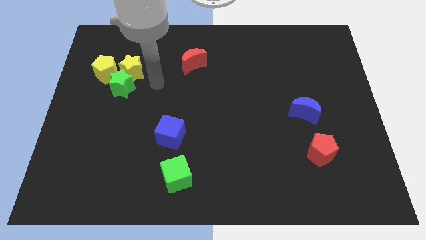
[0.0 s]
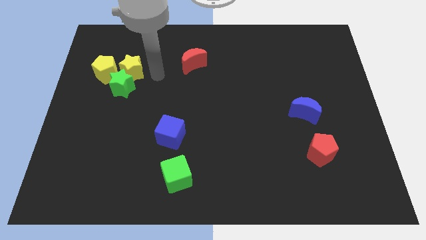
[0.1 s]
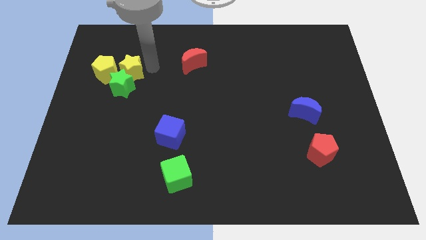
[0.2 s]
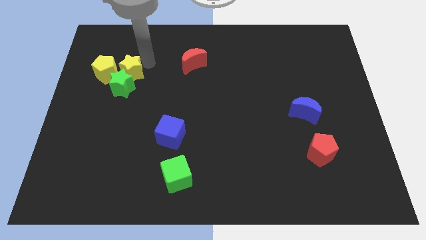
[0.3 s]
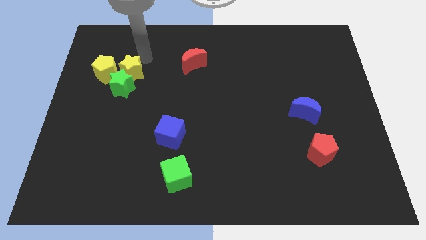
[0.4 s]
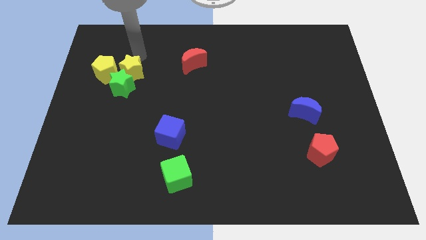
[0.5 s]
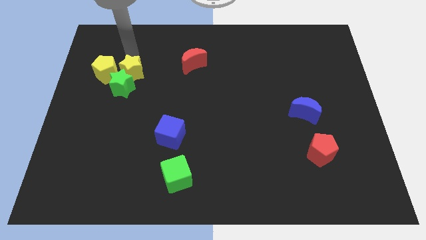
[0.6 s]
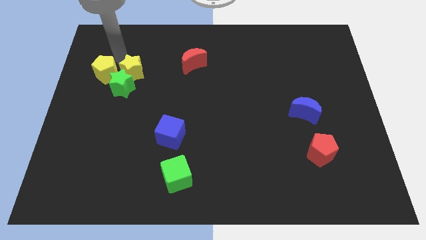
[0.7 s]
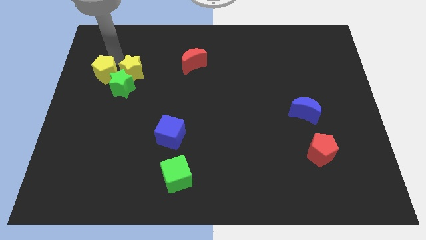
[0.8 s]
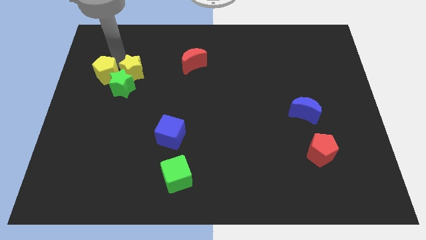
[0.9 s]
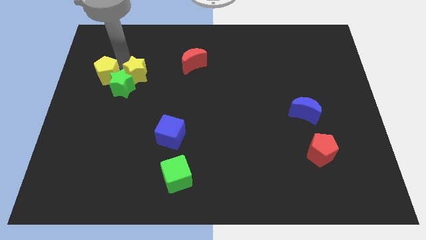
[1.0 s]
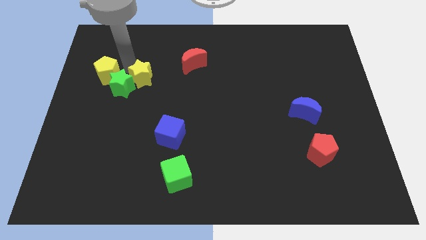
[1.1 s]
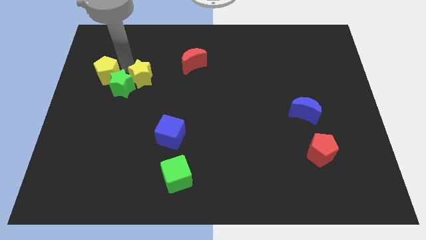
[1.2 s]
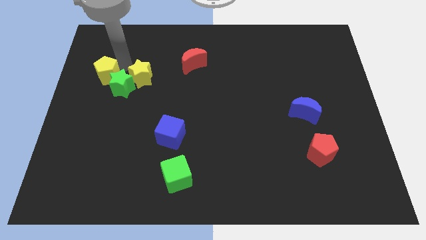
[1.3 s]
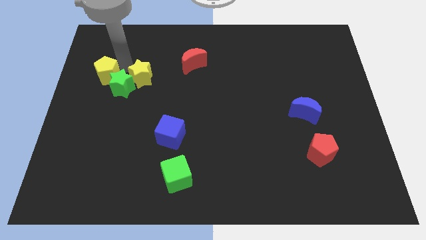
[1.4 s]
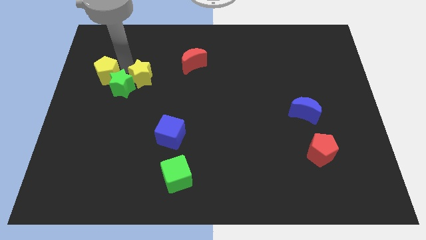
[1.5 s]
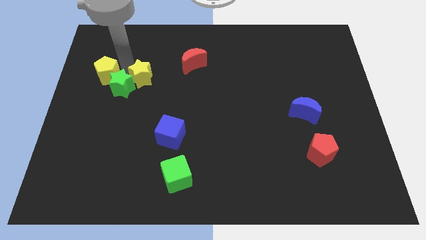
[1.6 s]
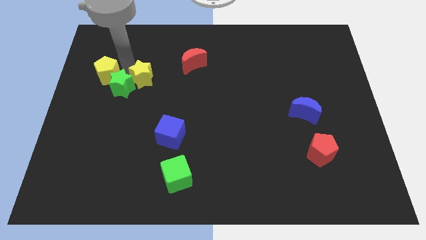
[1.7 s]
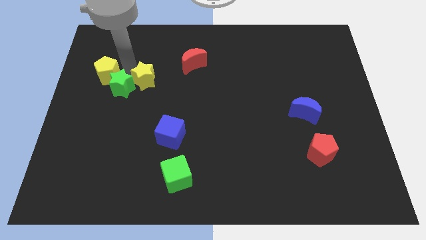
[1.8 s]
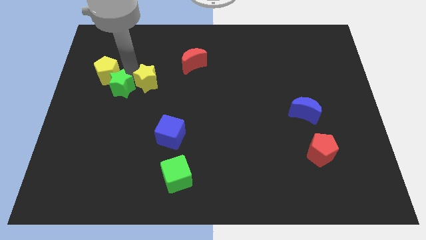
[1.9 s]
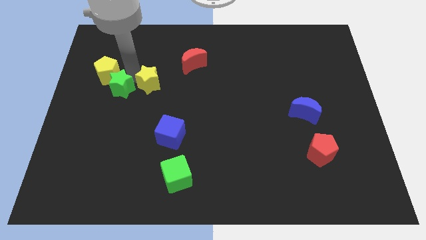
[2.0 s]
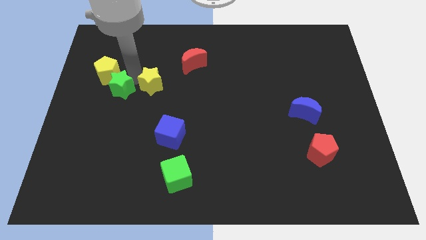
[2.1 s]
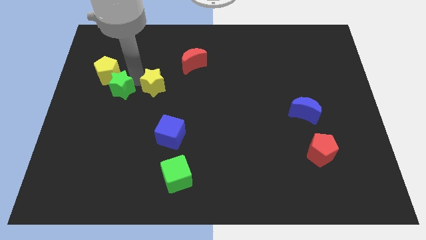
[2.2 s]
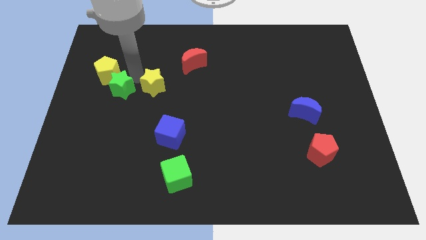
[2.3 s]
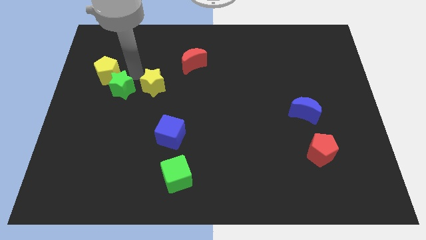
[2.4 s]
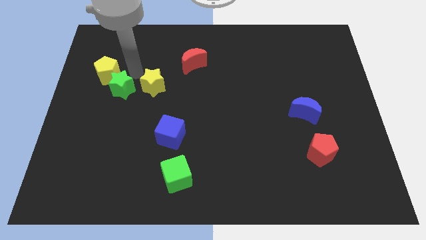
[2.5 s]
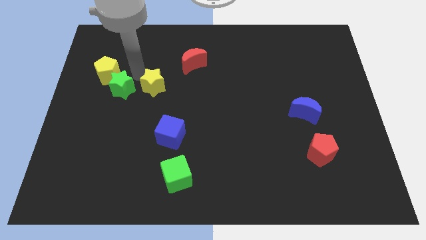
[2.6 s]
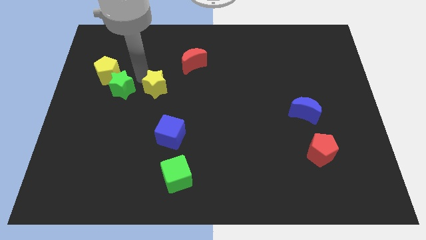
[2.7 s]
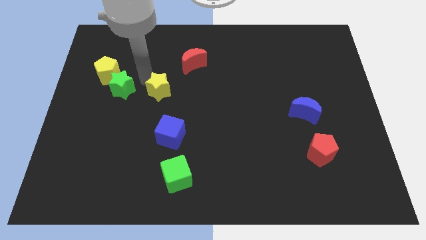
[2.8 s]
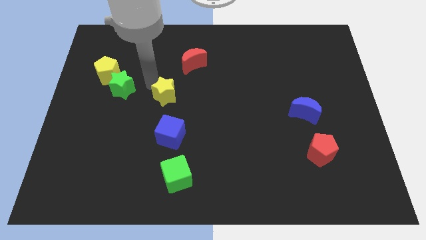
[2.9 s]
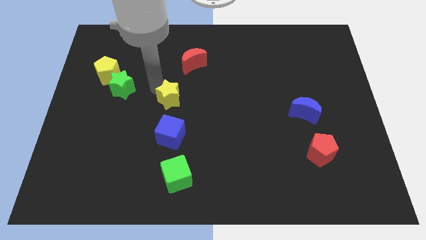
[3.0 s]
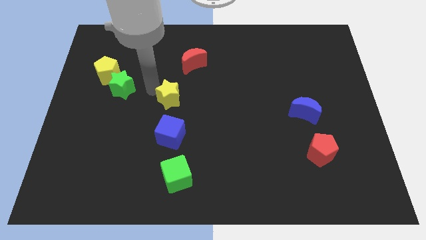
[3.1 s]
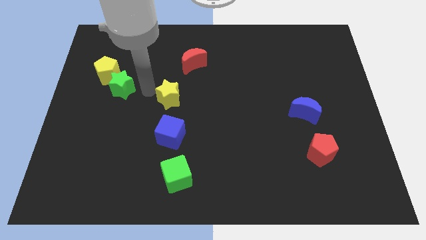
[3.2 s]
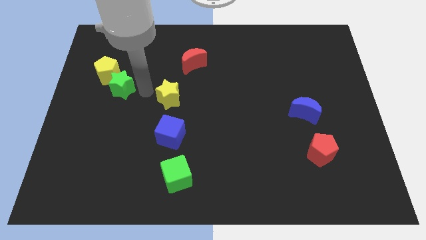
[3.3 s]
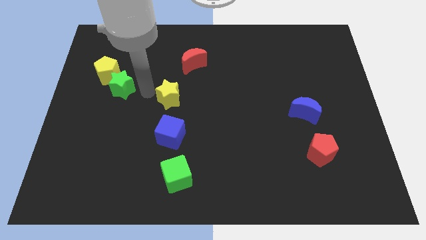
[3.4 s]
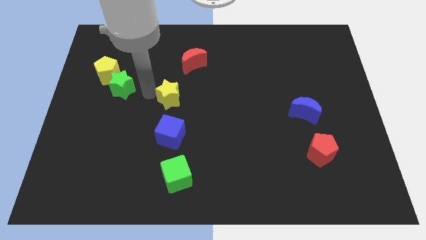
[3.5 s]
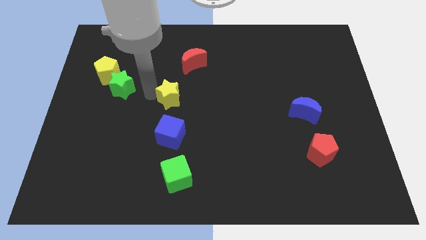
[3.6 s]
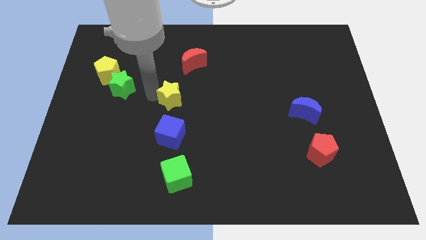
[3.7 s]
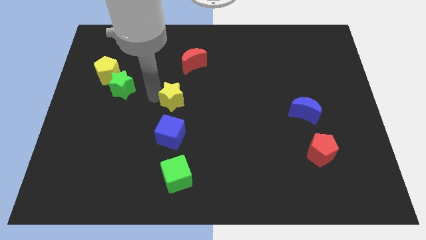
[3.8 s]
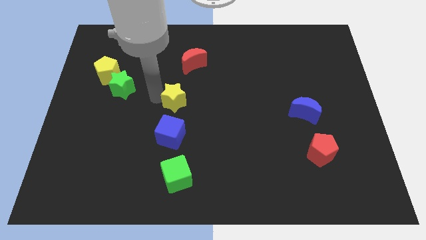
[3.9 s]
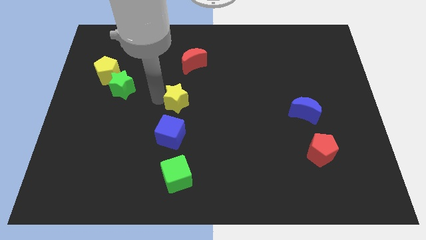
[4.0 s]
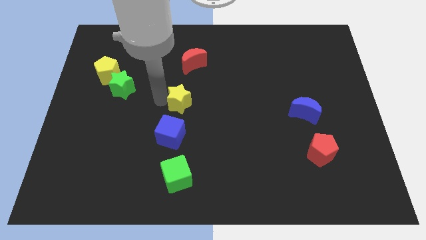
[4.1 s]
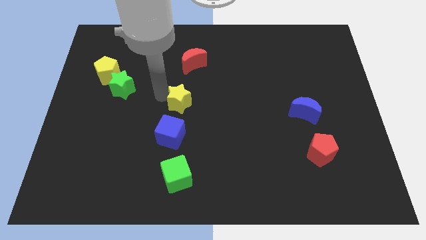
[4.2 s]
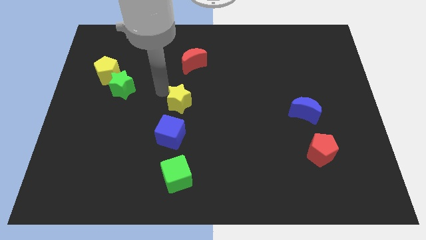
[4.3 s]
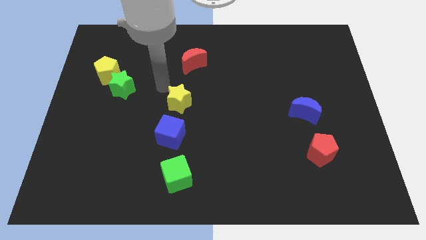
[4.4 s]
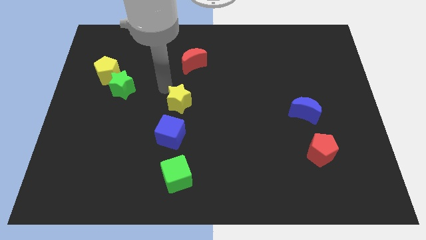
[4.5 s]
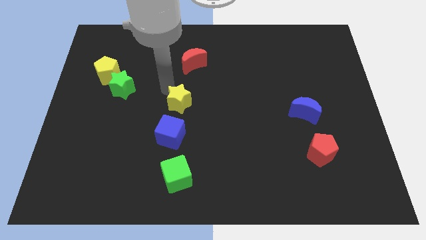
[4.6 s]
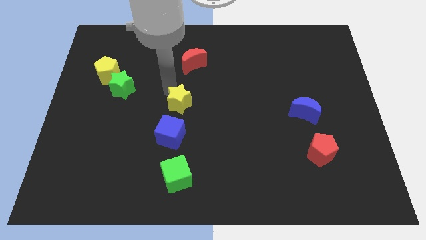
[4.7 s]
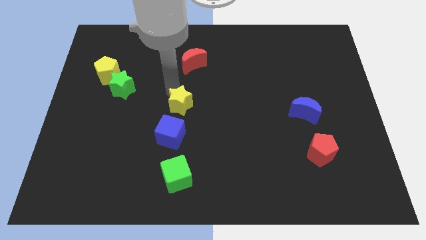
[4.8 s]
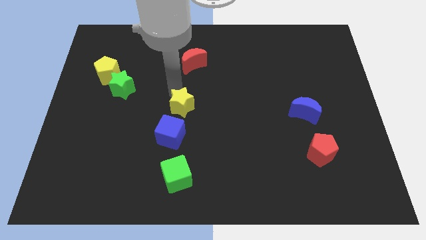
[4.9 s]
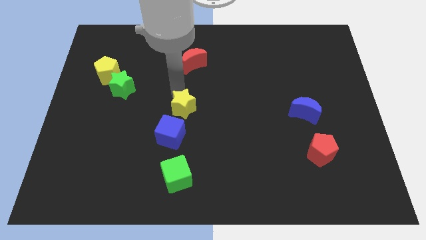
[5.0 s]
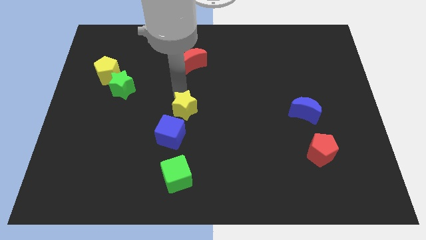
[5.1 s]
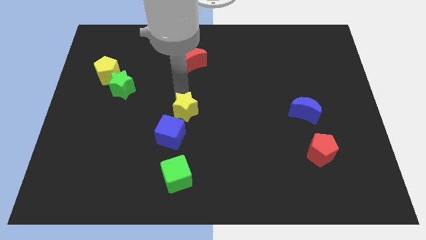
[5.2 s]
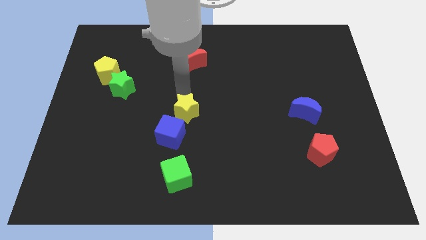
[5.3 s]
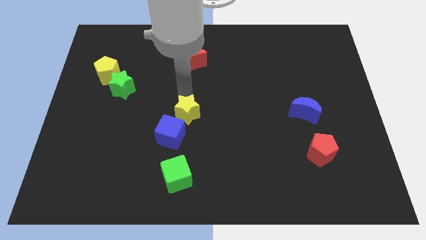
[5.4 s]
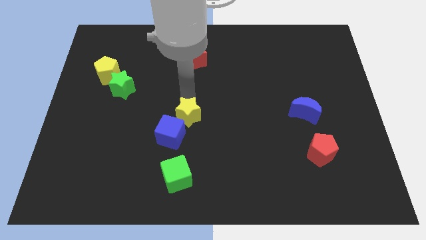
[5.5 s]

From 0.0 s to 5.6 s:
move the yellow star diagonally downwards and right

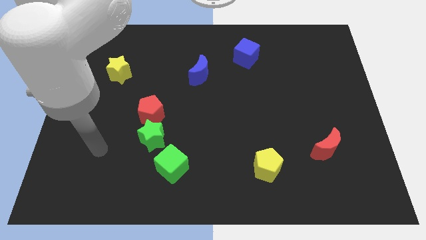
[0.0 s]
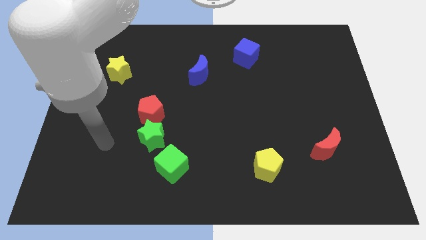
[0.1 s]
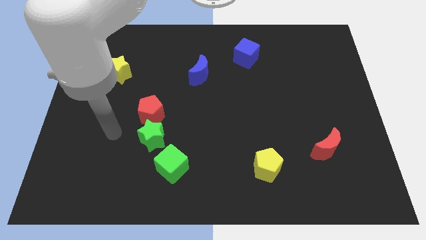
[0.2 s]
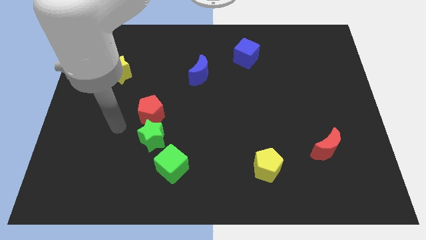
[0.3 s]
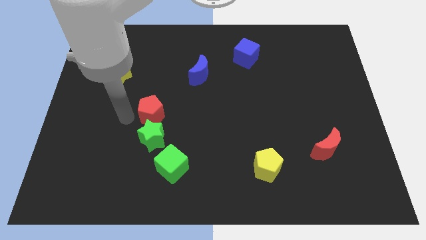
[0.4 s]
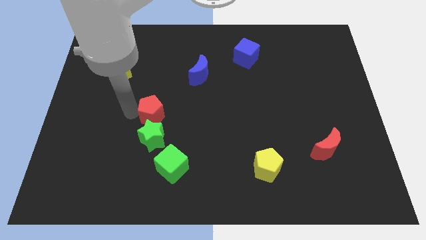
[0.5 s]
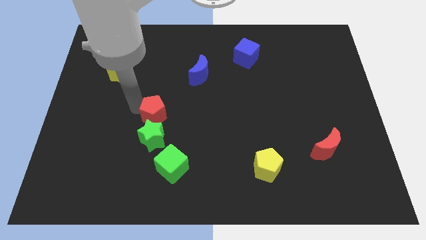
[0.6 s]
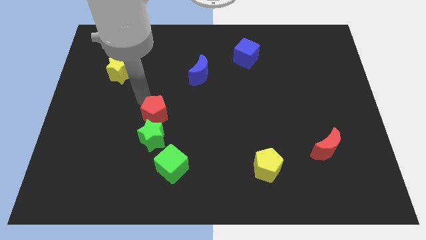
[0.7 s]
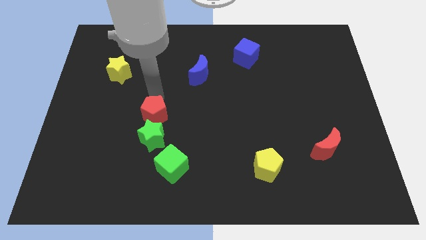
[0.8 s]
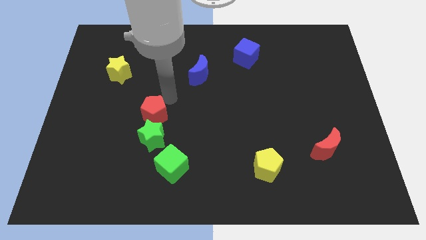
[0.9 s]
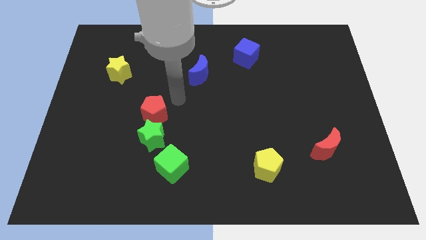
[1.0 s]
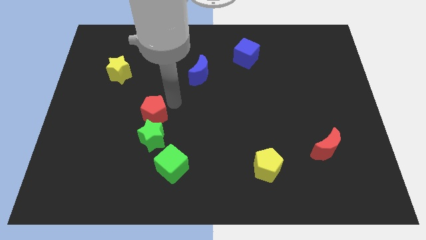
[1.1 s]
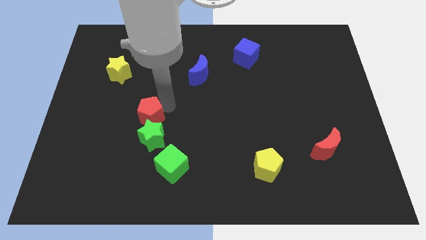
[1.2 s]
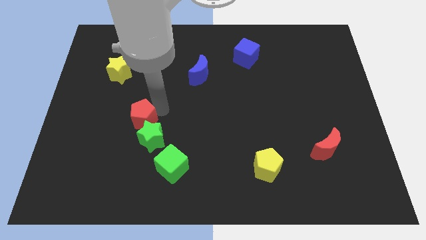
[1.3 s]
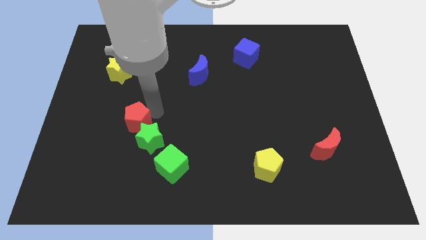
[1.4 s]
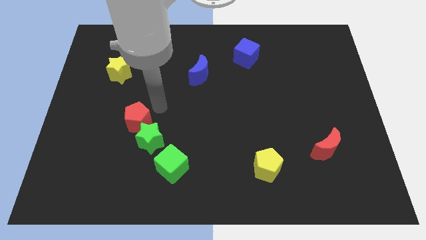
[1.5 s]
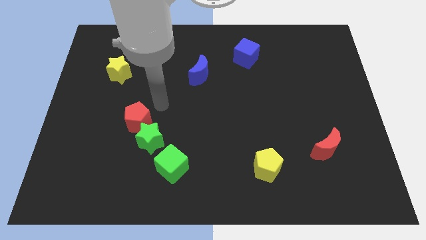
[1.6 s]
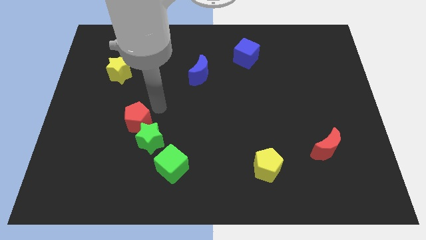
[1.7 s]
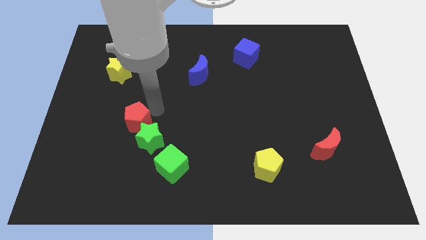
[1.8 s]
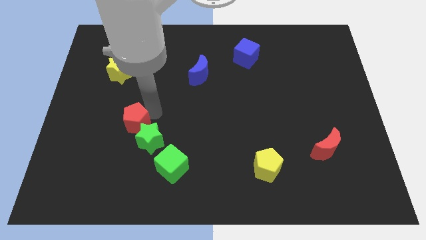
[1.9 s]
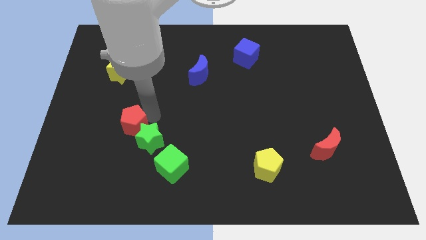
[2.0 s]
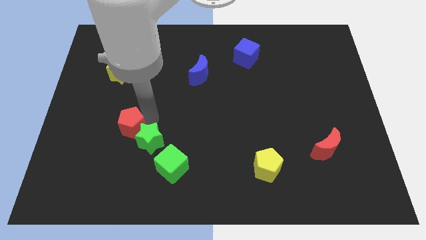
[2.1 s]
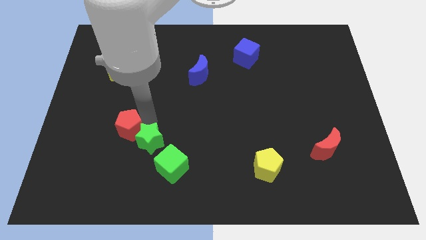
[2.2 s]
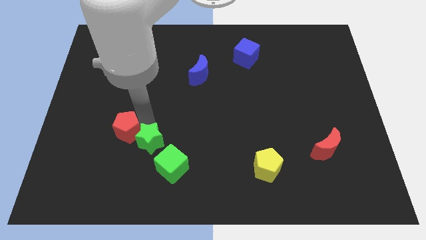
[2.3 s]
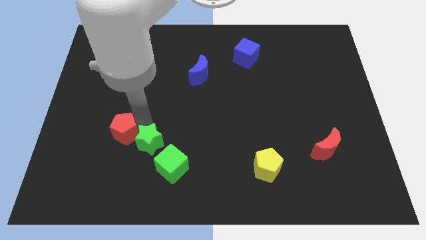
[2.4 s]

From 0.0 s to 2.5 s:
move the red pentagon down and left somewhat
